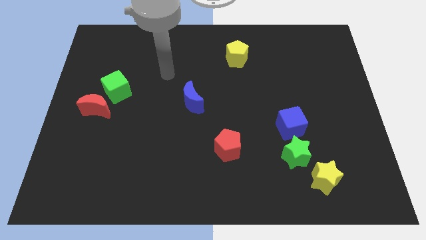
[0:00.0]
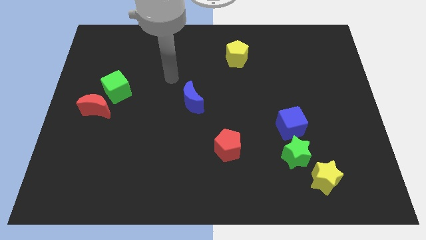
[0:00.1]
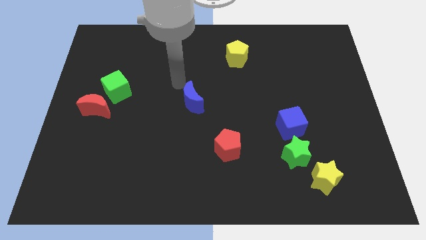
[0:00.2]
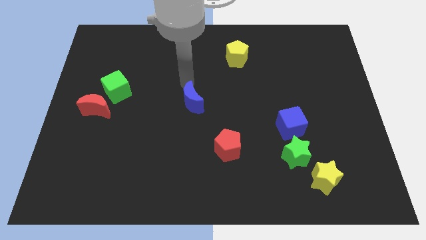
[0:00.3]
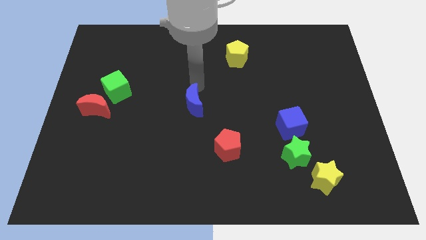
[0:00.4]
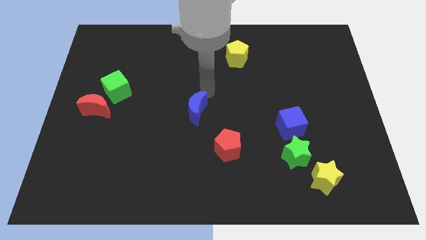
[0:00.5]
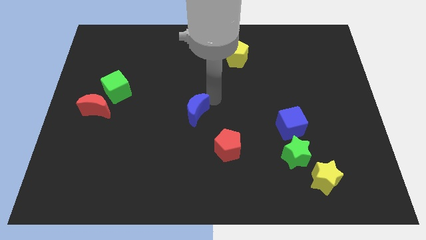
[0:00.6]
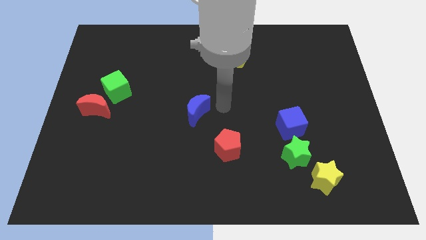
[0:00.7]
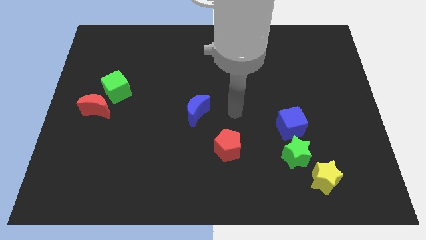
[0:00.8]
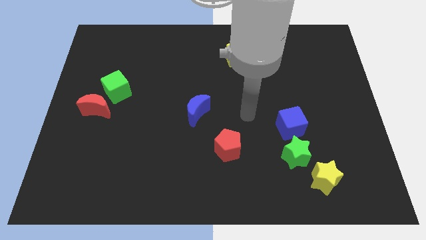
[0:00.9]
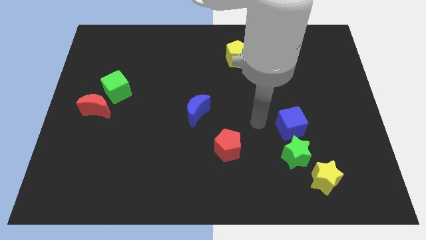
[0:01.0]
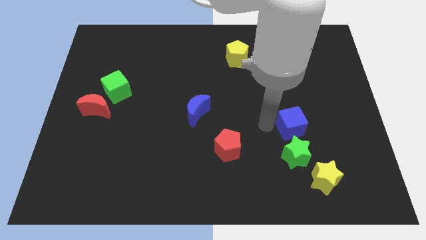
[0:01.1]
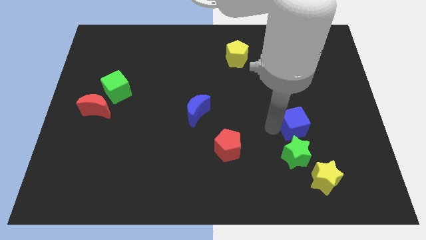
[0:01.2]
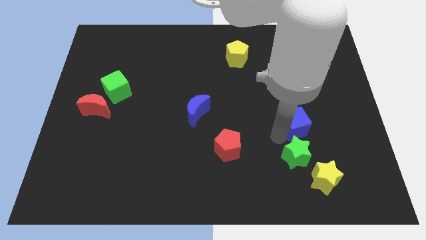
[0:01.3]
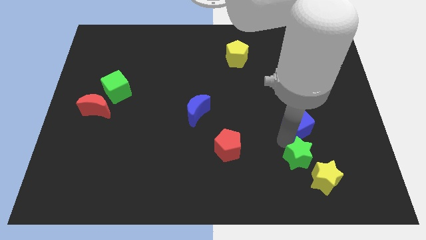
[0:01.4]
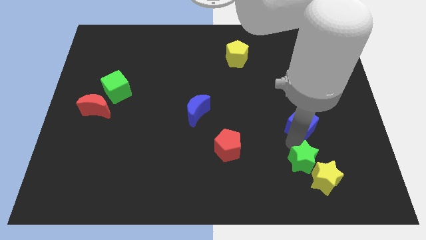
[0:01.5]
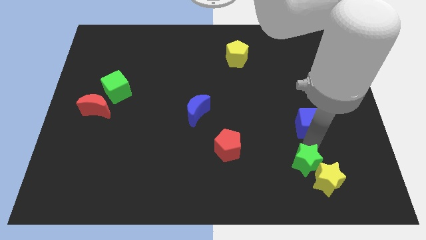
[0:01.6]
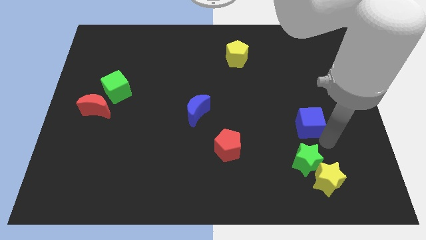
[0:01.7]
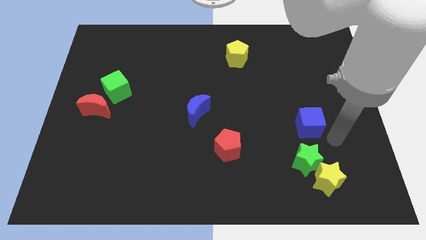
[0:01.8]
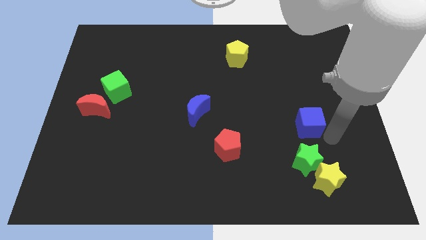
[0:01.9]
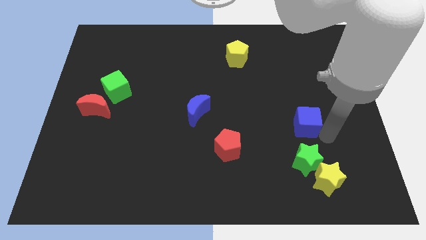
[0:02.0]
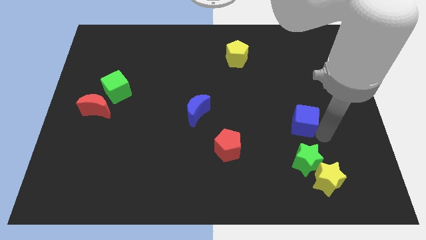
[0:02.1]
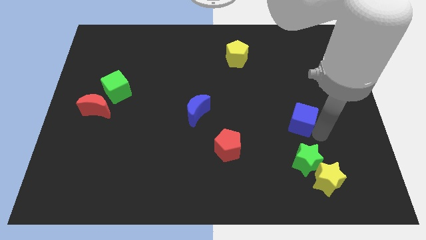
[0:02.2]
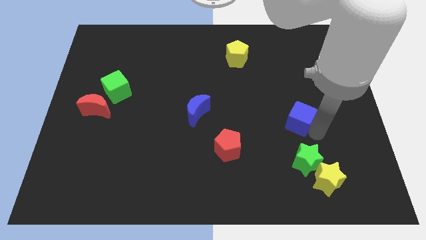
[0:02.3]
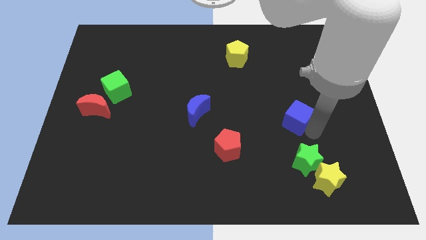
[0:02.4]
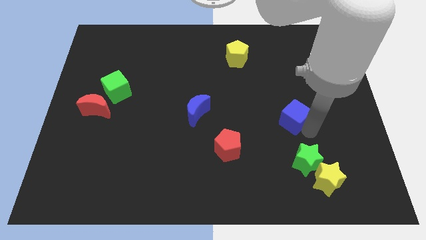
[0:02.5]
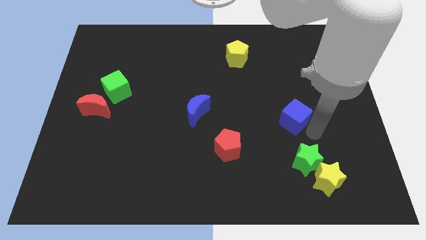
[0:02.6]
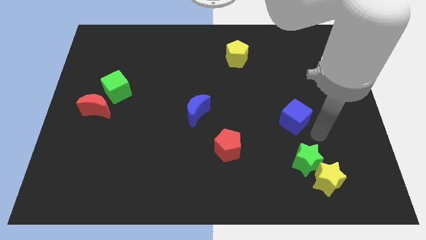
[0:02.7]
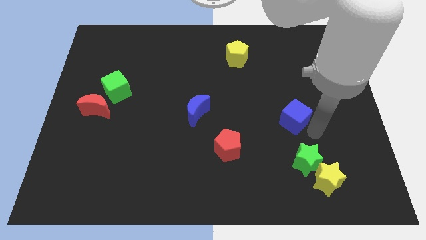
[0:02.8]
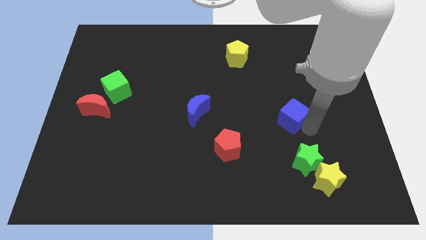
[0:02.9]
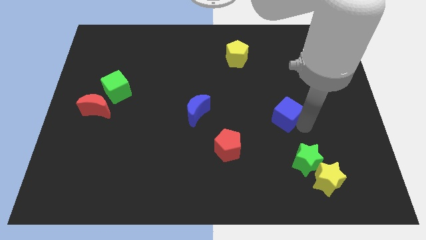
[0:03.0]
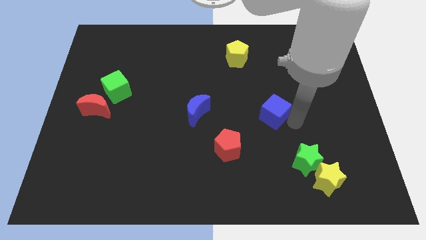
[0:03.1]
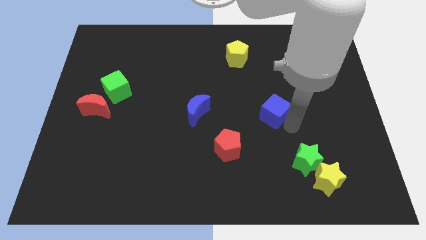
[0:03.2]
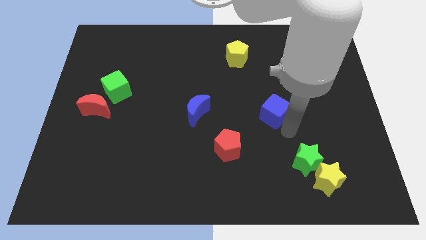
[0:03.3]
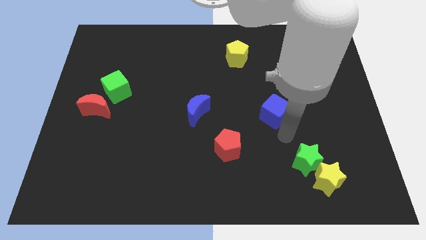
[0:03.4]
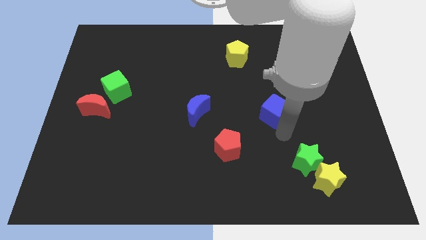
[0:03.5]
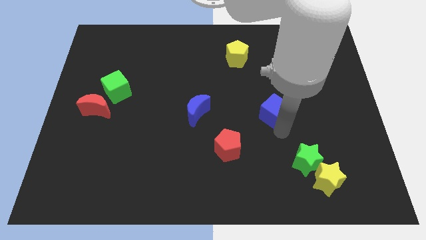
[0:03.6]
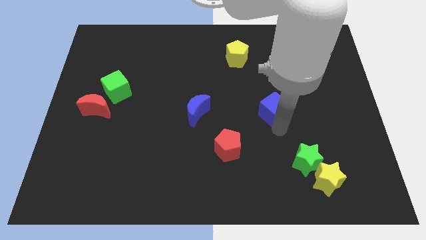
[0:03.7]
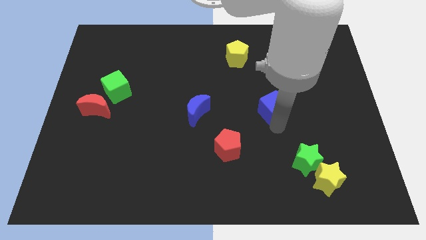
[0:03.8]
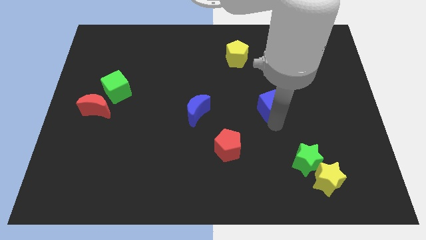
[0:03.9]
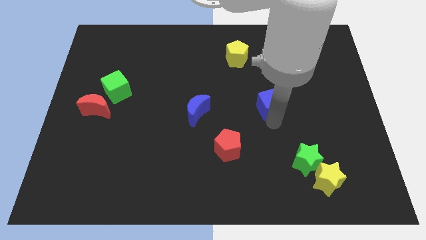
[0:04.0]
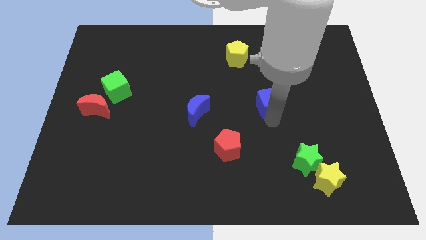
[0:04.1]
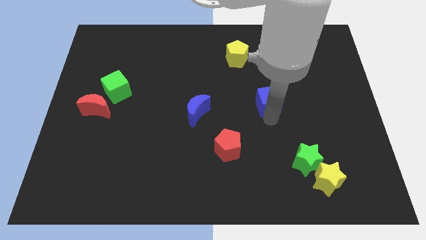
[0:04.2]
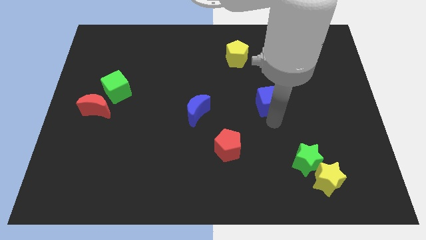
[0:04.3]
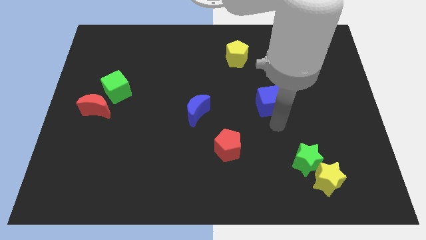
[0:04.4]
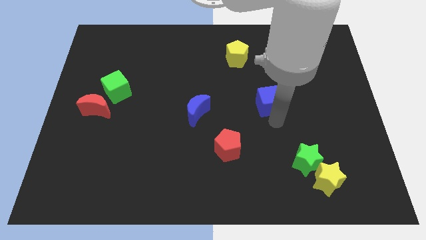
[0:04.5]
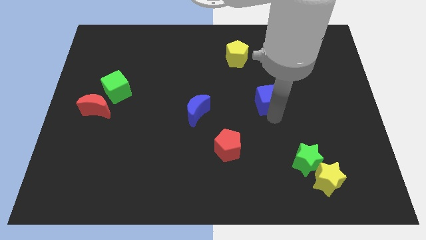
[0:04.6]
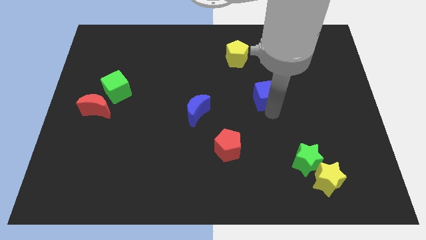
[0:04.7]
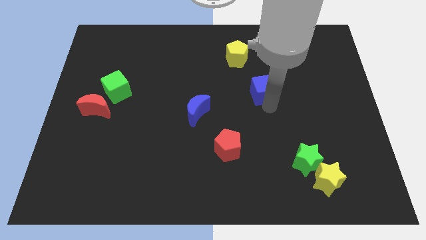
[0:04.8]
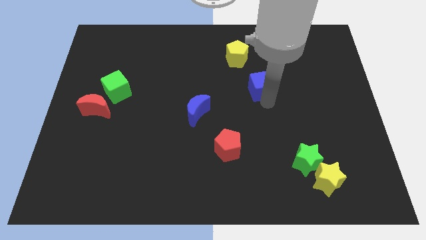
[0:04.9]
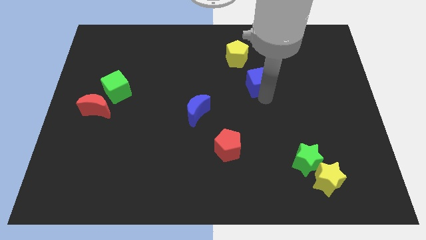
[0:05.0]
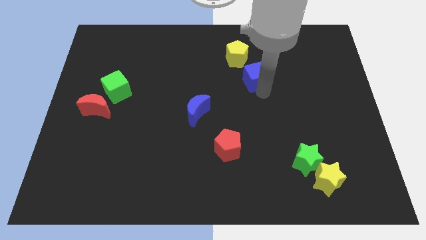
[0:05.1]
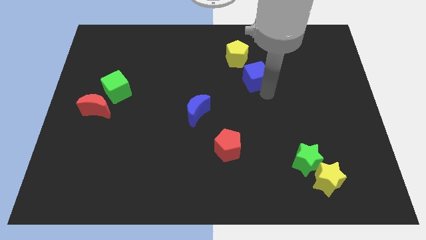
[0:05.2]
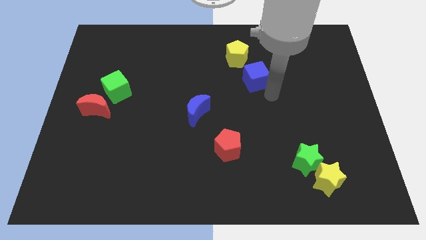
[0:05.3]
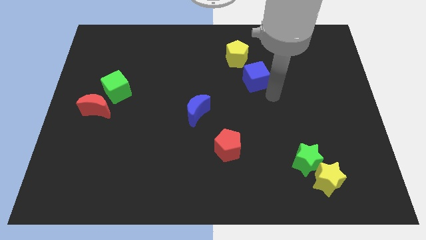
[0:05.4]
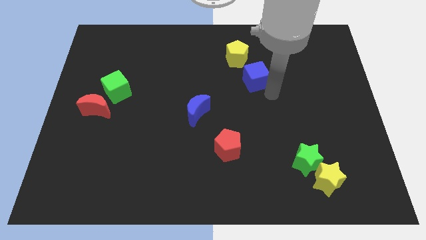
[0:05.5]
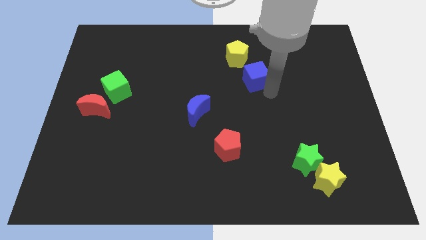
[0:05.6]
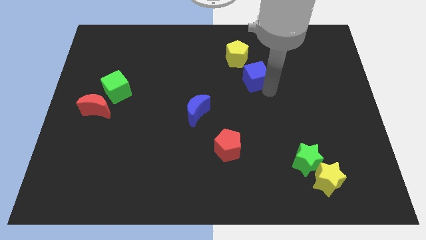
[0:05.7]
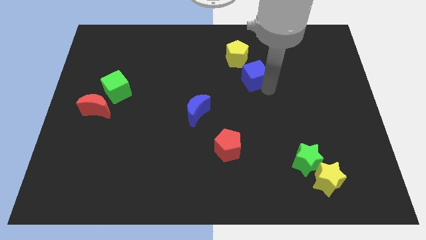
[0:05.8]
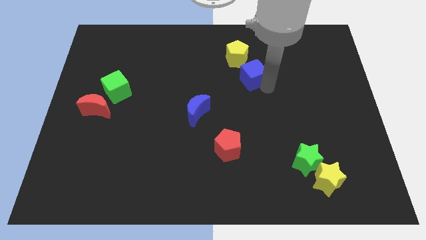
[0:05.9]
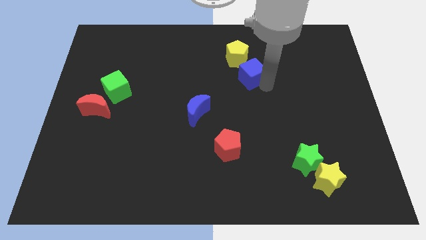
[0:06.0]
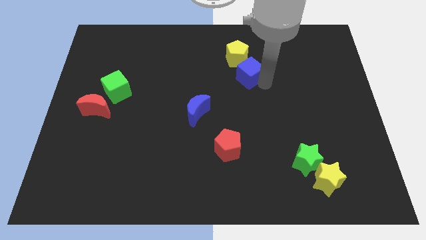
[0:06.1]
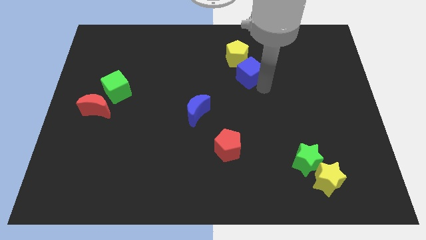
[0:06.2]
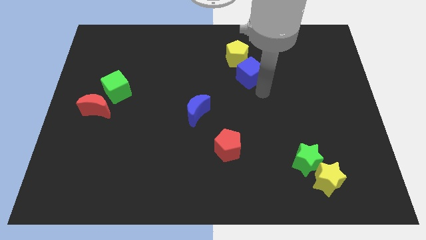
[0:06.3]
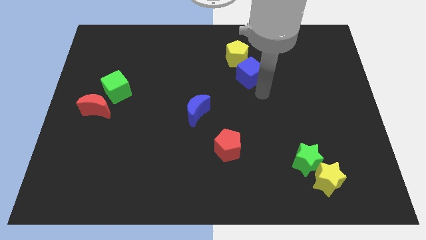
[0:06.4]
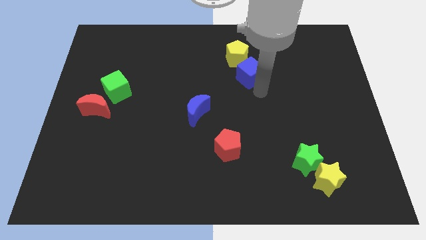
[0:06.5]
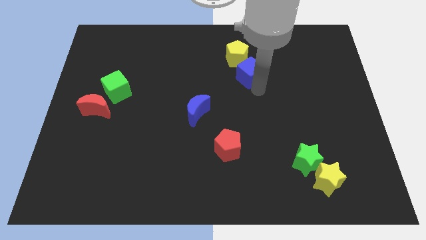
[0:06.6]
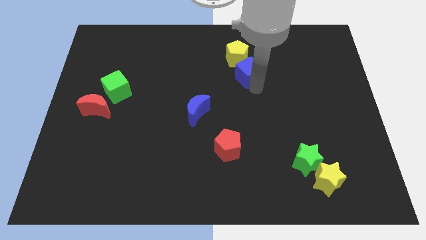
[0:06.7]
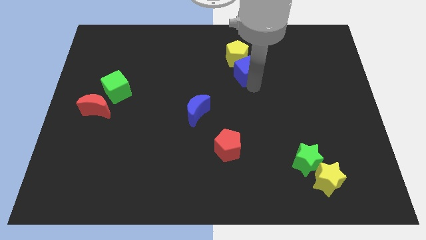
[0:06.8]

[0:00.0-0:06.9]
move the blue cube towards the yellow pentagon
